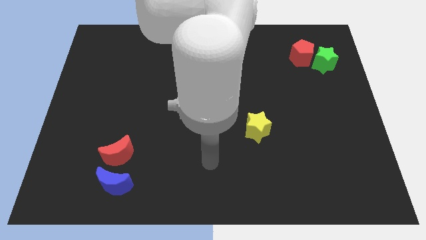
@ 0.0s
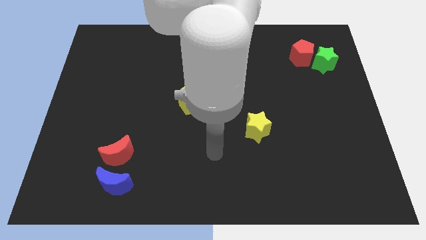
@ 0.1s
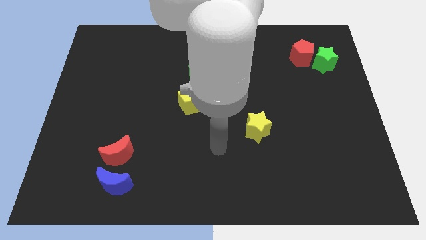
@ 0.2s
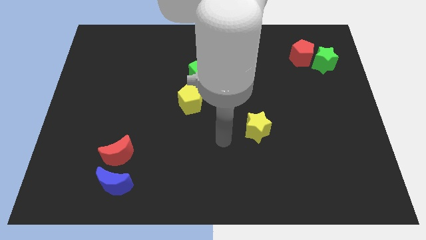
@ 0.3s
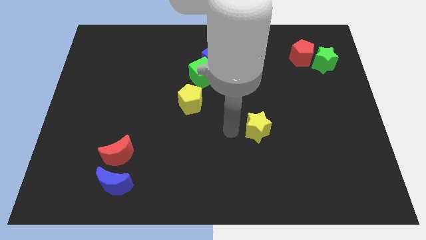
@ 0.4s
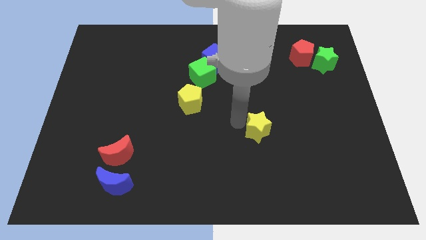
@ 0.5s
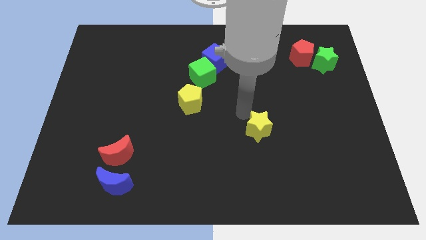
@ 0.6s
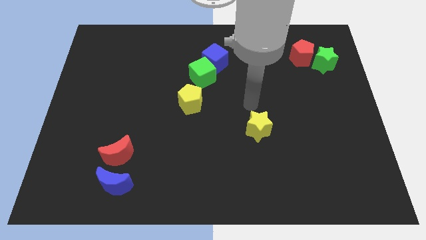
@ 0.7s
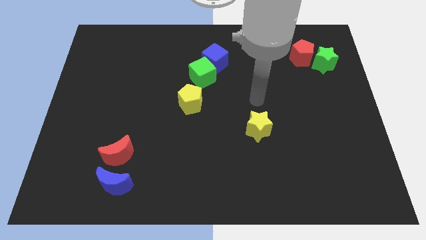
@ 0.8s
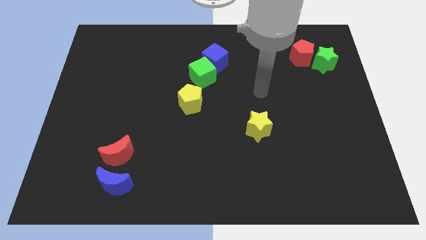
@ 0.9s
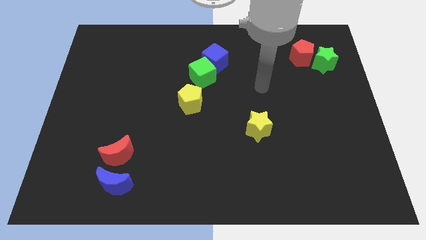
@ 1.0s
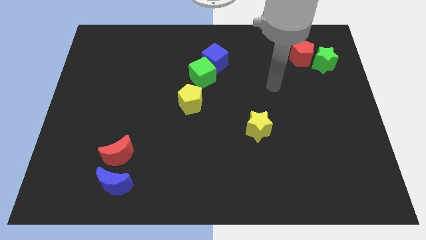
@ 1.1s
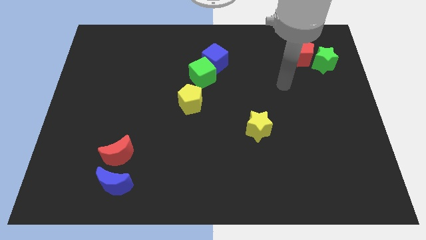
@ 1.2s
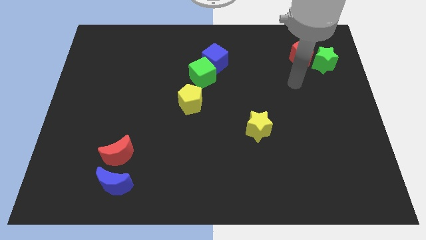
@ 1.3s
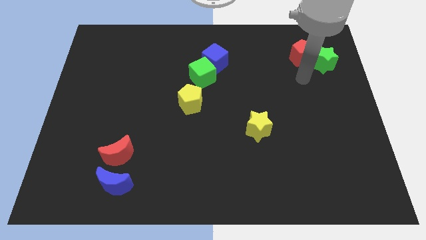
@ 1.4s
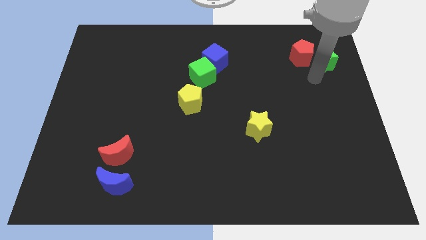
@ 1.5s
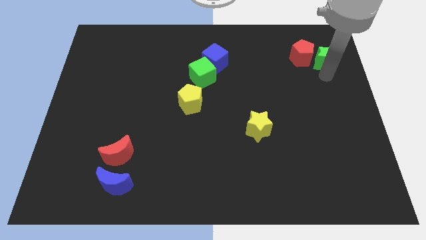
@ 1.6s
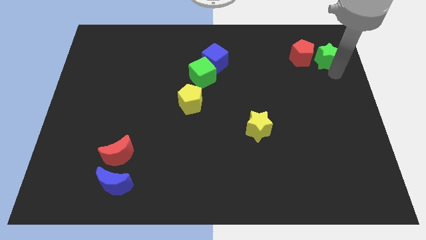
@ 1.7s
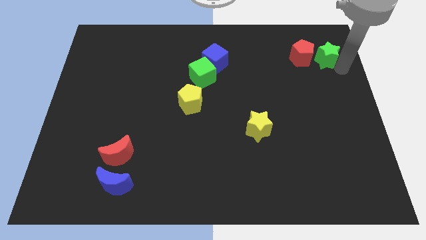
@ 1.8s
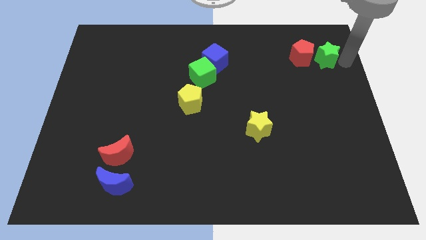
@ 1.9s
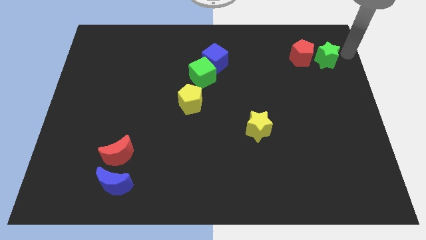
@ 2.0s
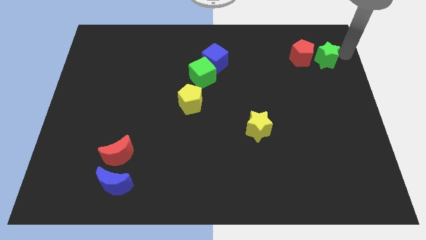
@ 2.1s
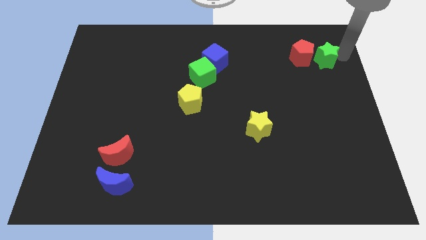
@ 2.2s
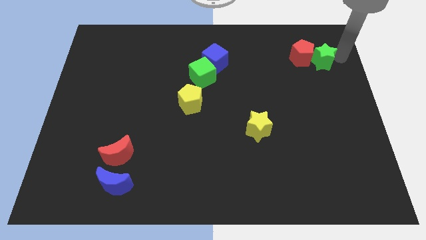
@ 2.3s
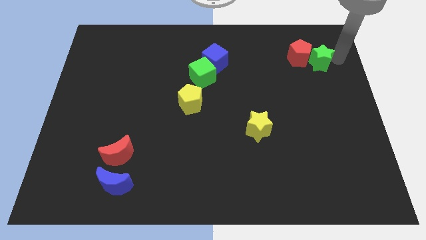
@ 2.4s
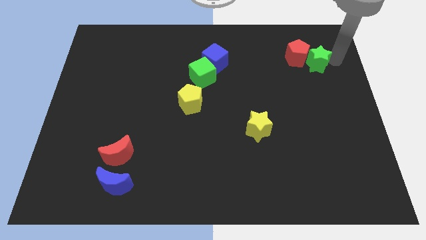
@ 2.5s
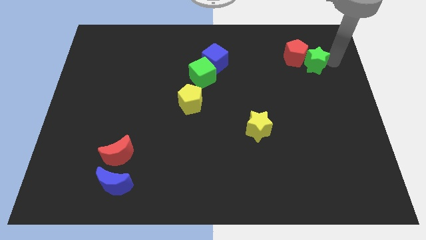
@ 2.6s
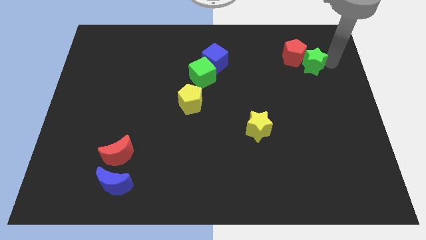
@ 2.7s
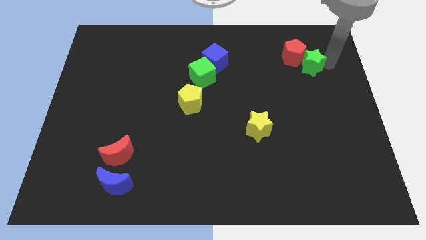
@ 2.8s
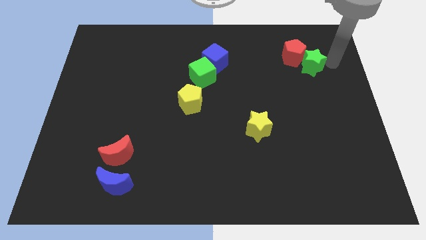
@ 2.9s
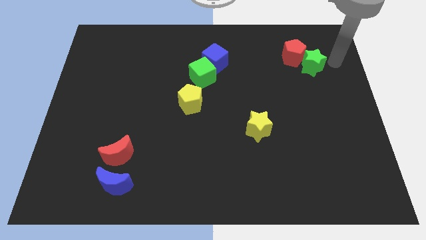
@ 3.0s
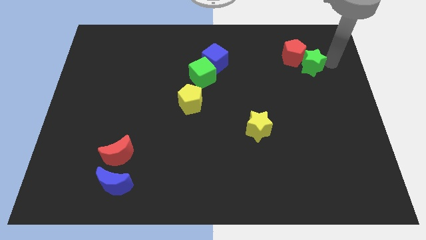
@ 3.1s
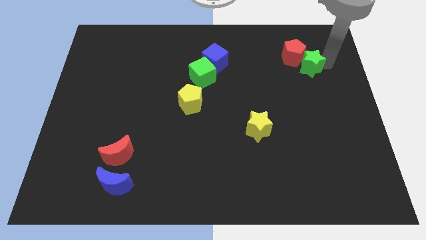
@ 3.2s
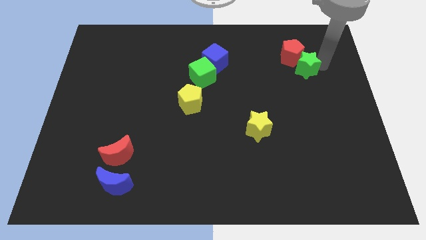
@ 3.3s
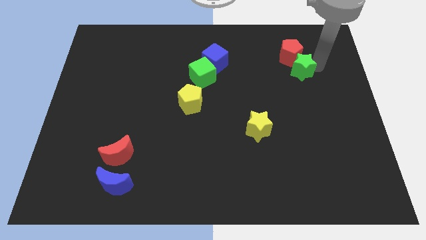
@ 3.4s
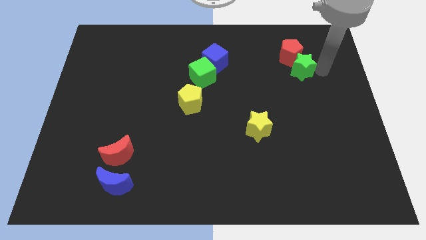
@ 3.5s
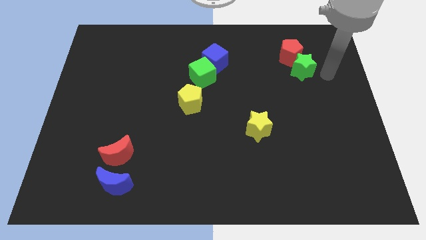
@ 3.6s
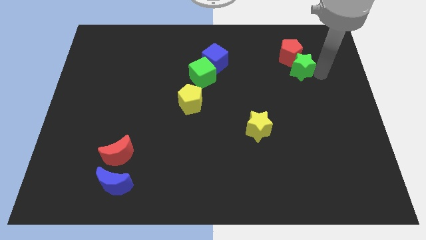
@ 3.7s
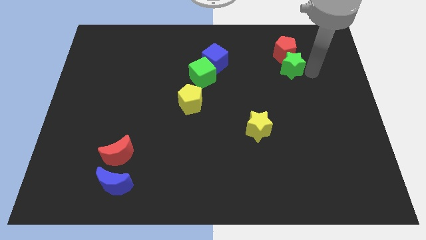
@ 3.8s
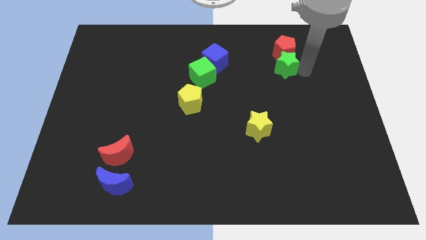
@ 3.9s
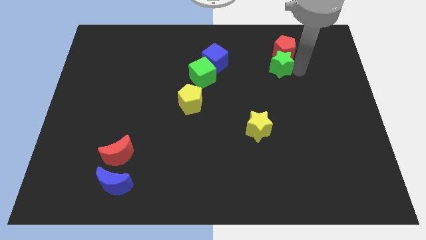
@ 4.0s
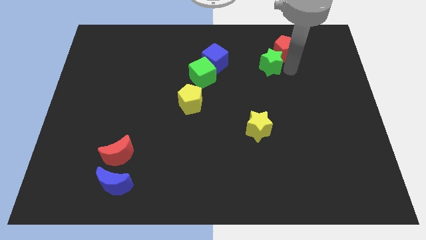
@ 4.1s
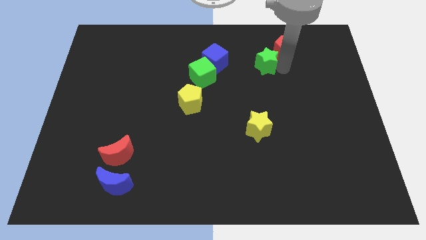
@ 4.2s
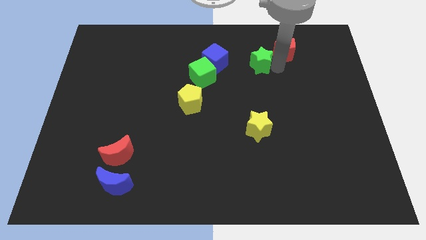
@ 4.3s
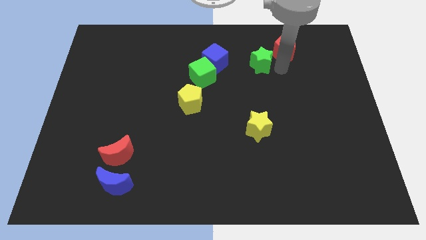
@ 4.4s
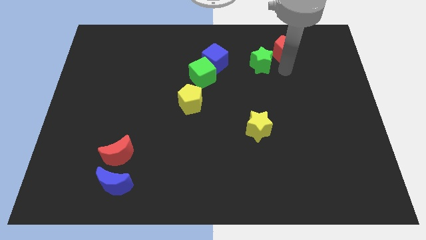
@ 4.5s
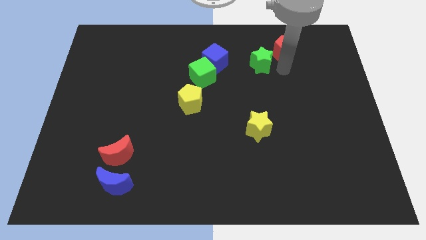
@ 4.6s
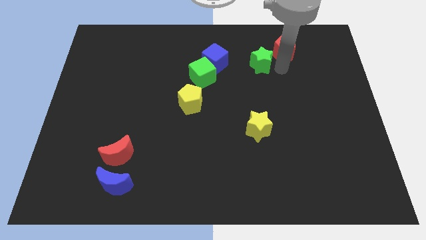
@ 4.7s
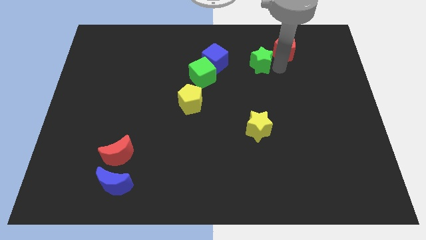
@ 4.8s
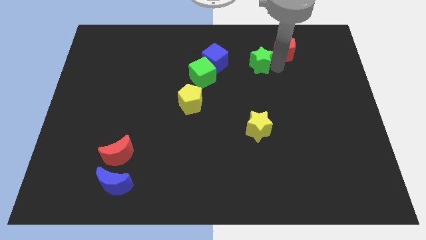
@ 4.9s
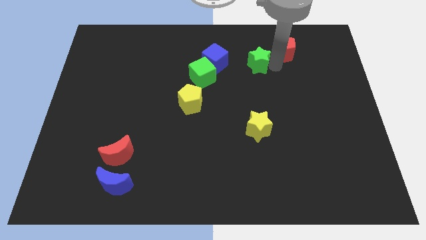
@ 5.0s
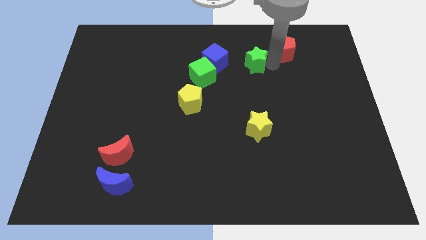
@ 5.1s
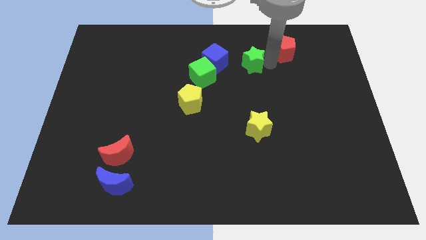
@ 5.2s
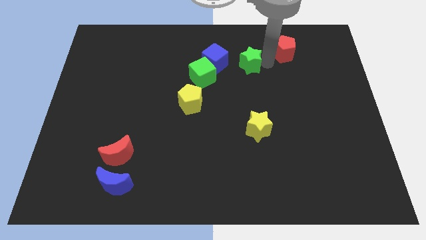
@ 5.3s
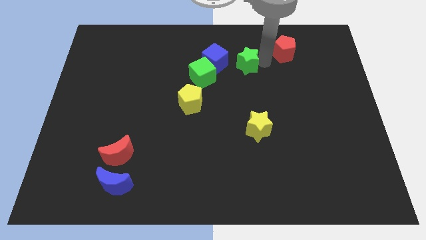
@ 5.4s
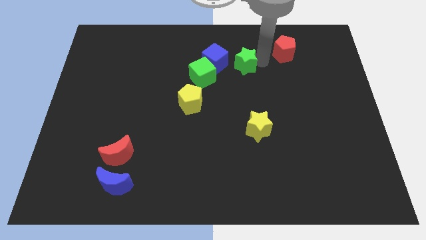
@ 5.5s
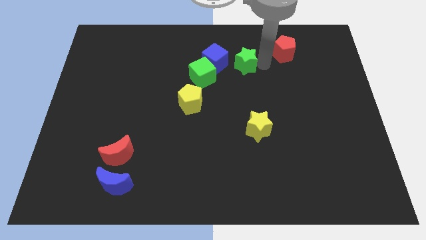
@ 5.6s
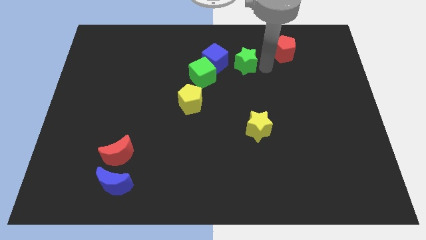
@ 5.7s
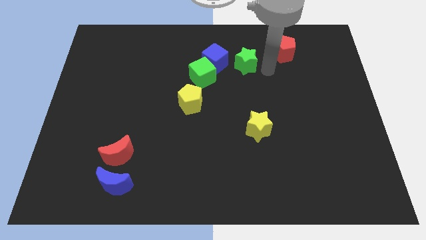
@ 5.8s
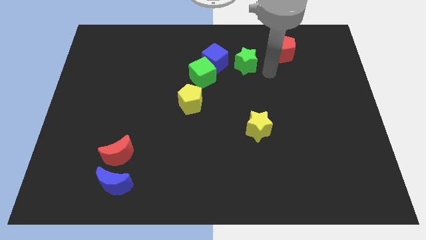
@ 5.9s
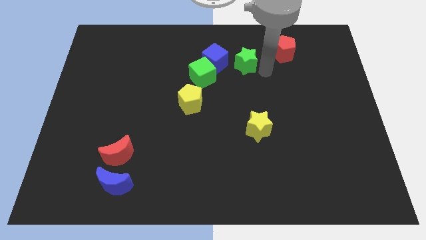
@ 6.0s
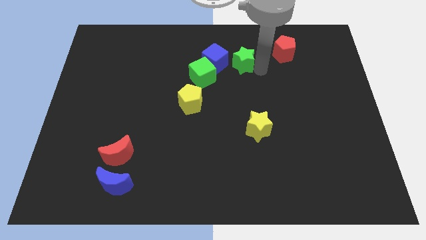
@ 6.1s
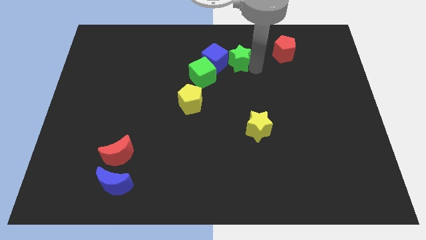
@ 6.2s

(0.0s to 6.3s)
put the green star next to the blue cube

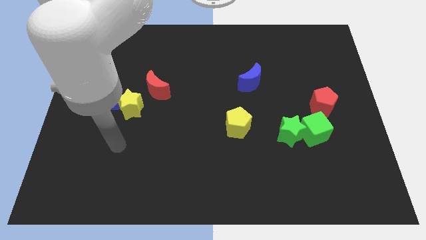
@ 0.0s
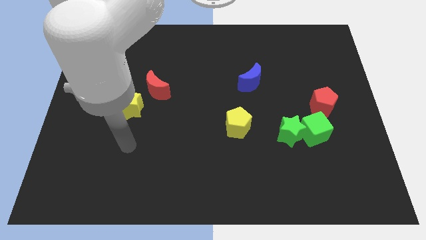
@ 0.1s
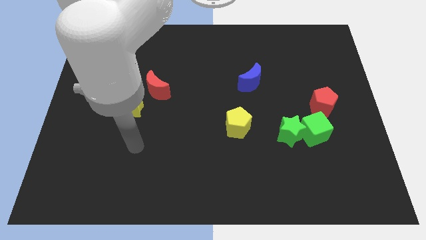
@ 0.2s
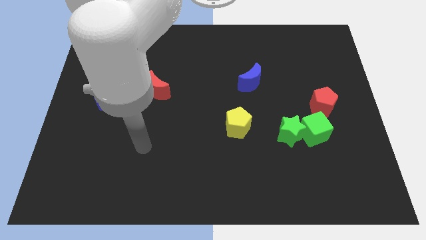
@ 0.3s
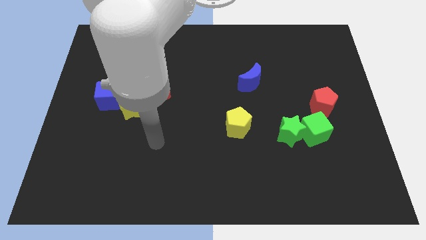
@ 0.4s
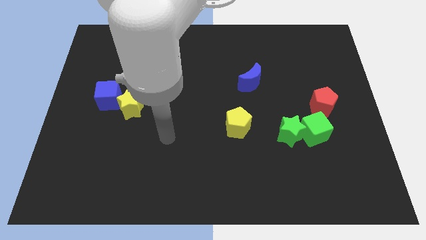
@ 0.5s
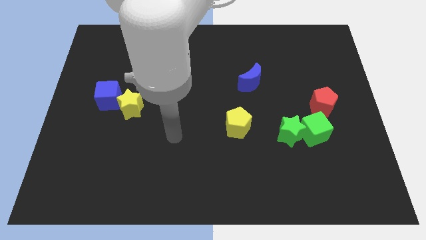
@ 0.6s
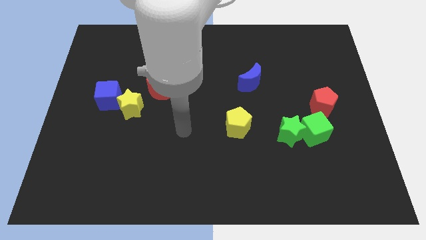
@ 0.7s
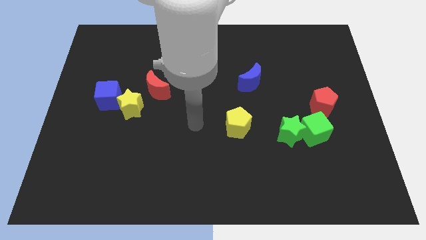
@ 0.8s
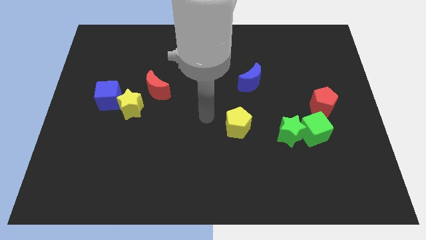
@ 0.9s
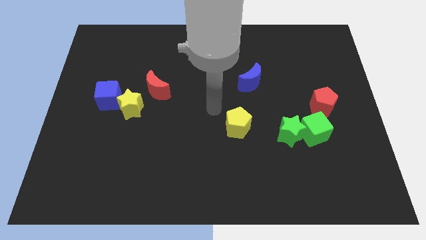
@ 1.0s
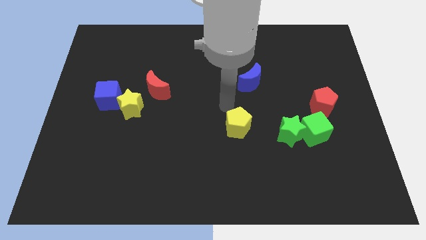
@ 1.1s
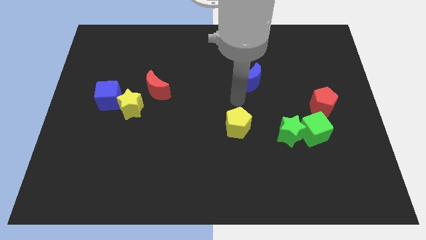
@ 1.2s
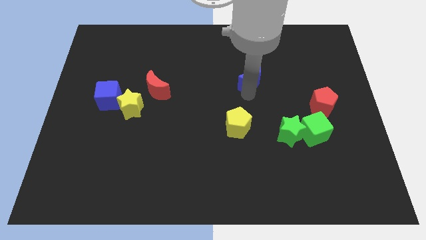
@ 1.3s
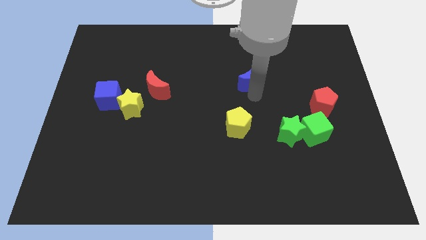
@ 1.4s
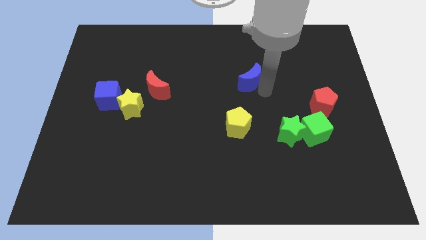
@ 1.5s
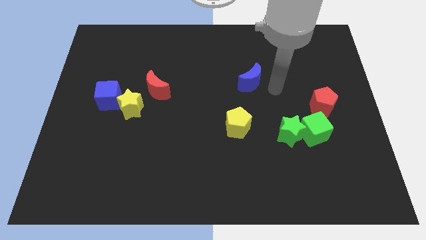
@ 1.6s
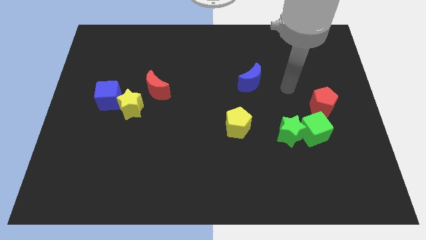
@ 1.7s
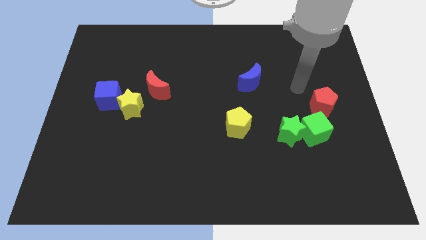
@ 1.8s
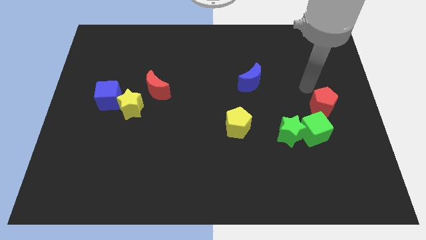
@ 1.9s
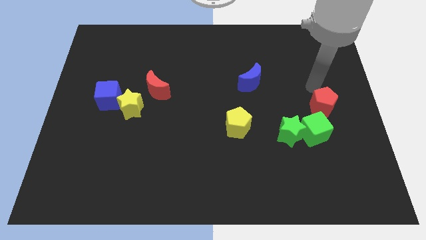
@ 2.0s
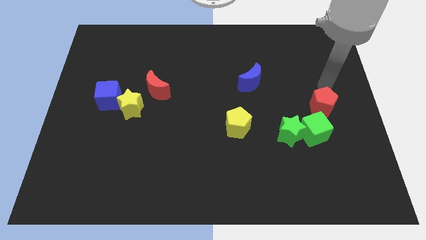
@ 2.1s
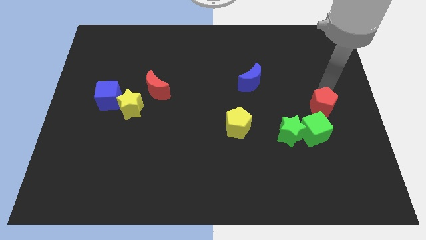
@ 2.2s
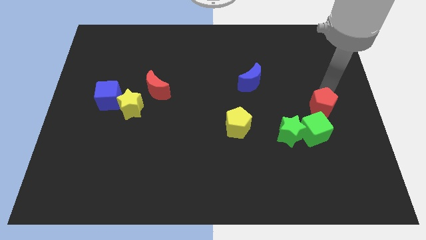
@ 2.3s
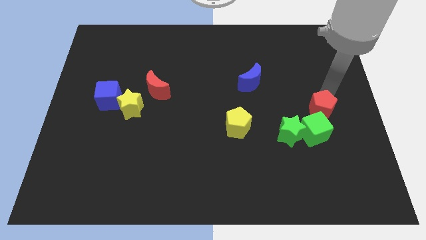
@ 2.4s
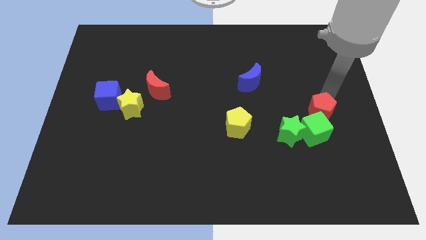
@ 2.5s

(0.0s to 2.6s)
move the red pentagon next to the green cube
